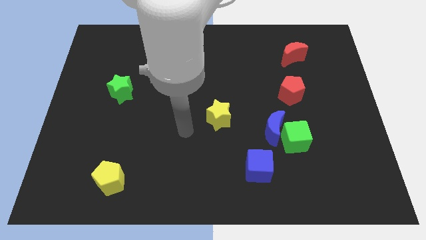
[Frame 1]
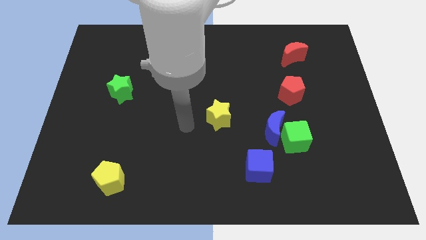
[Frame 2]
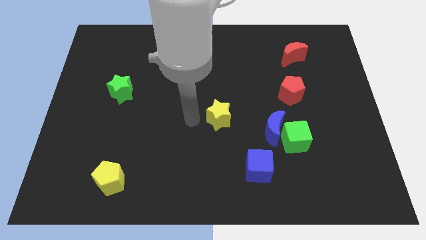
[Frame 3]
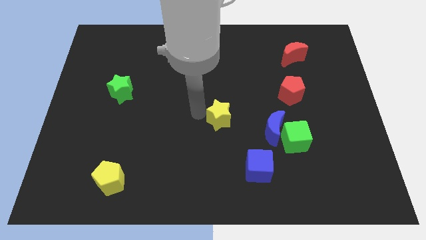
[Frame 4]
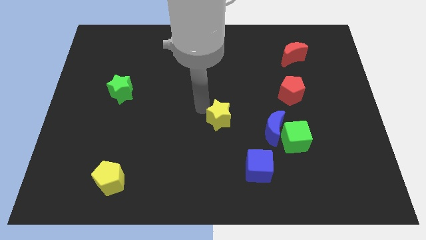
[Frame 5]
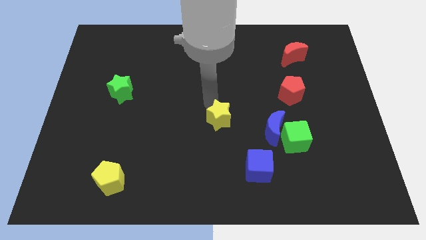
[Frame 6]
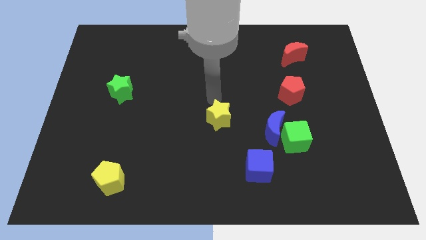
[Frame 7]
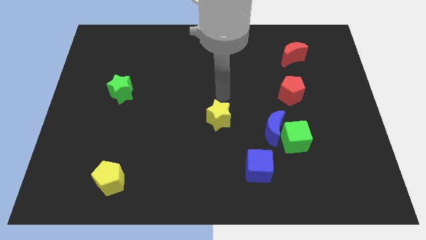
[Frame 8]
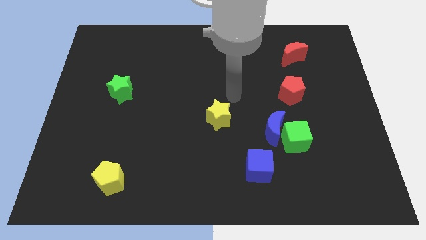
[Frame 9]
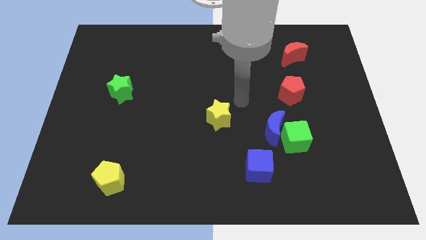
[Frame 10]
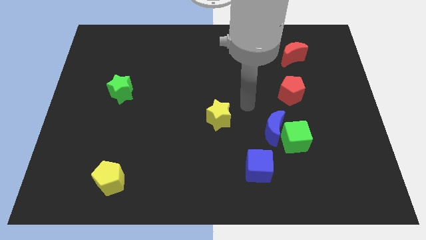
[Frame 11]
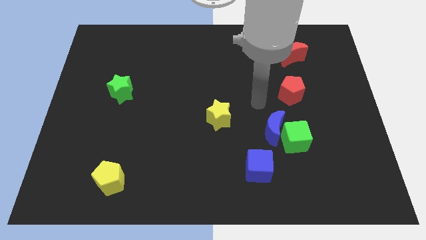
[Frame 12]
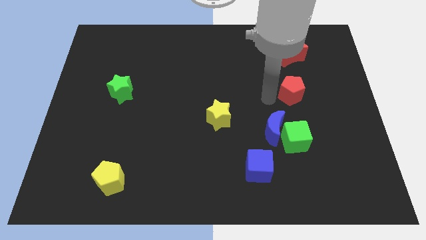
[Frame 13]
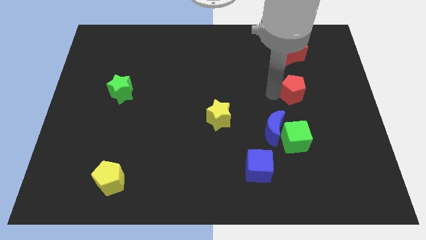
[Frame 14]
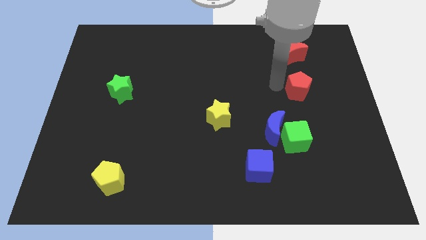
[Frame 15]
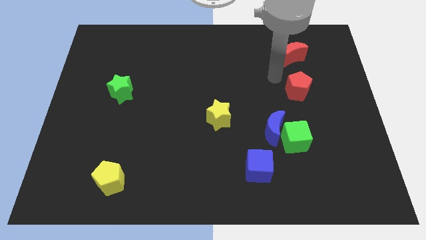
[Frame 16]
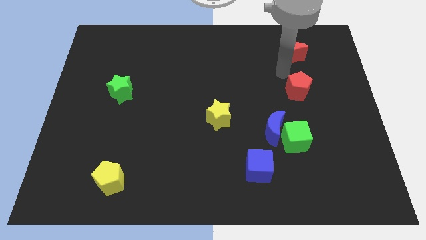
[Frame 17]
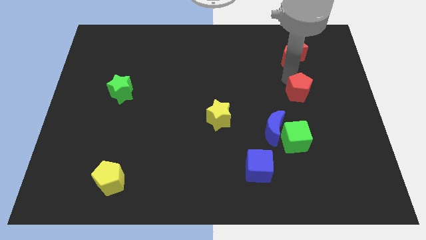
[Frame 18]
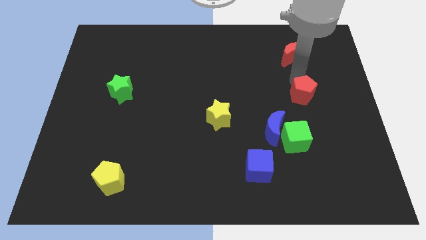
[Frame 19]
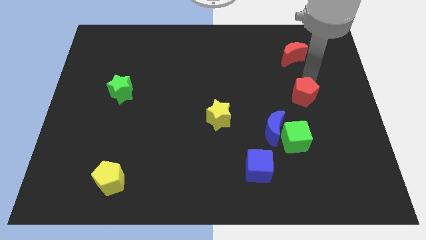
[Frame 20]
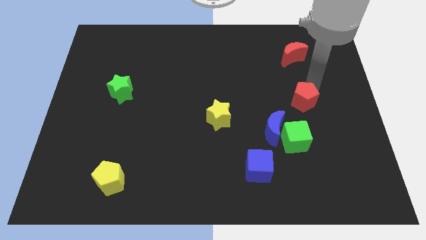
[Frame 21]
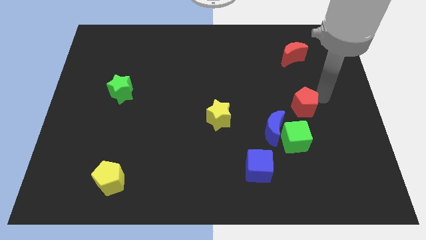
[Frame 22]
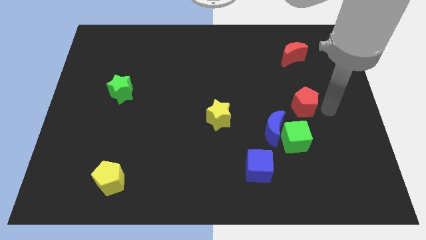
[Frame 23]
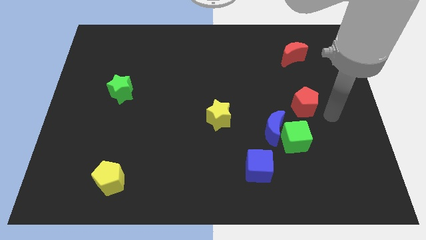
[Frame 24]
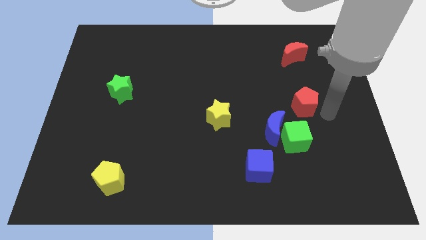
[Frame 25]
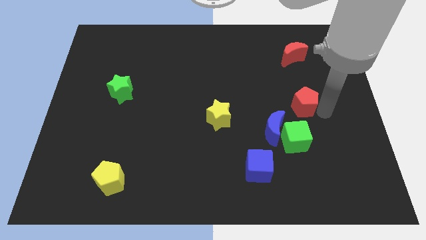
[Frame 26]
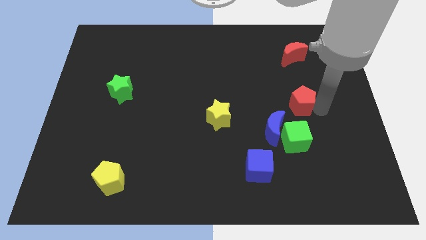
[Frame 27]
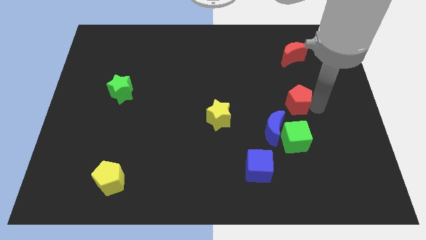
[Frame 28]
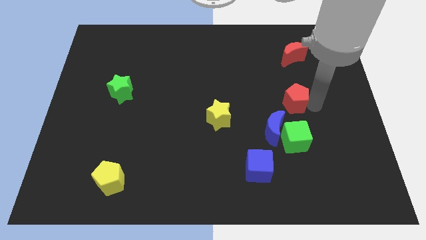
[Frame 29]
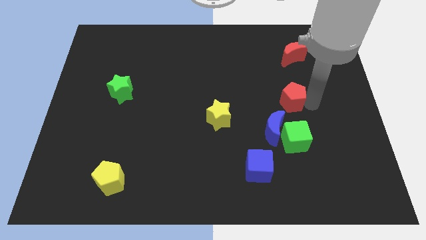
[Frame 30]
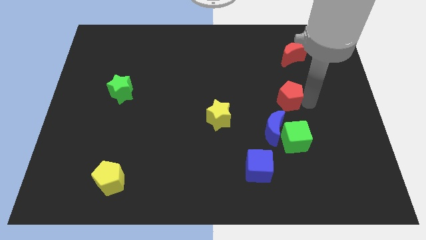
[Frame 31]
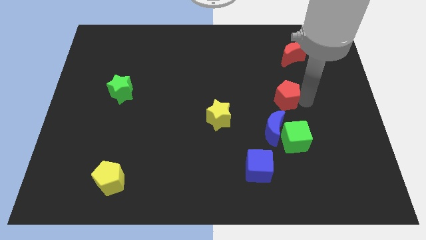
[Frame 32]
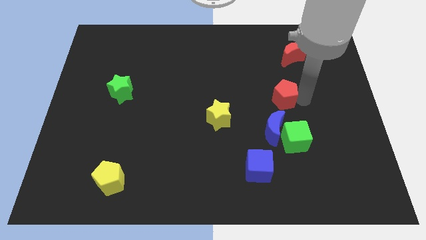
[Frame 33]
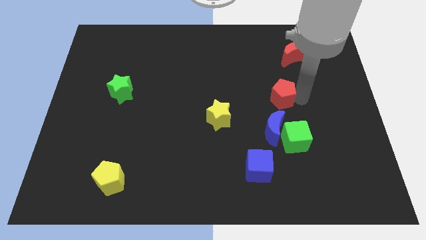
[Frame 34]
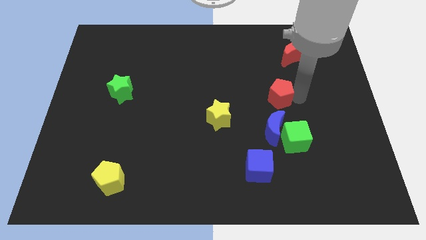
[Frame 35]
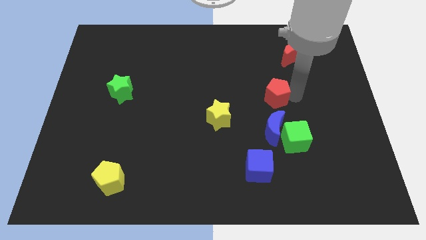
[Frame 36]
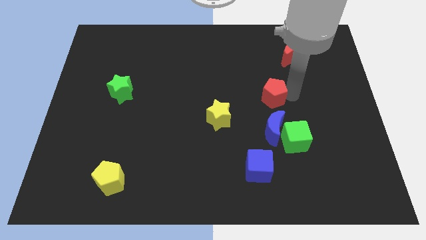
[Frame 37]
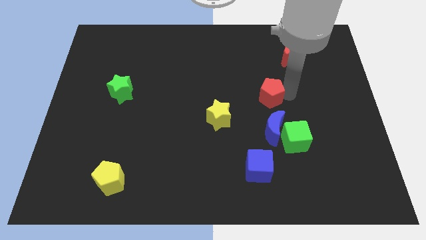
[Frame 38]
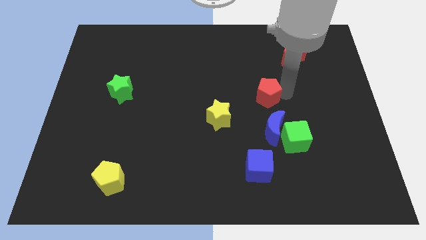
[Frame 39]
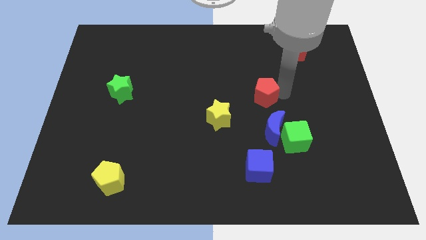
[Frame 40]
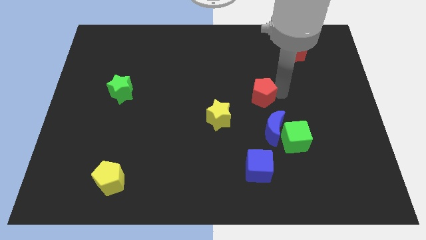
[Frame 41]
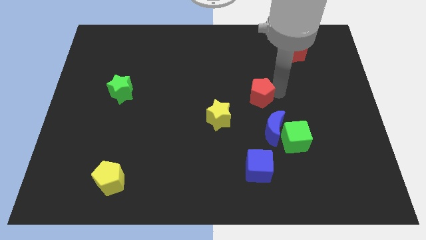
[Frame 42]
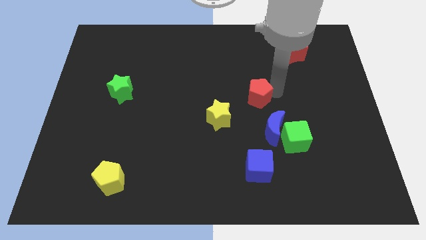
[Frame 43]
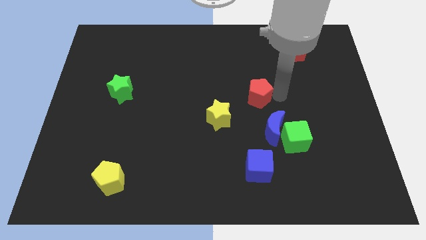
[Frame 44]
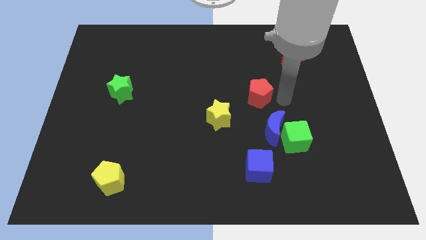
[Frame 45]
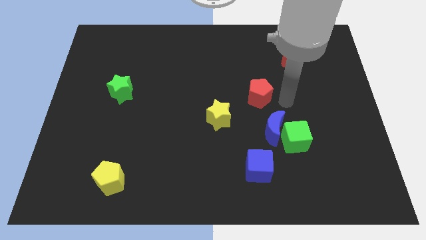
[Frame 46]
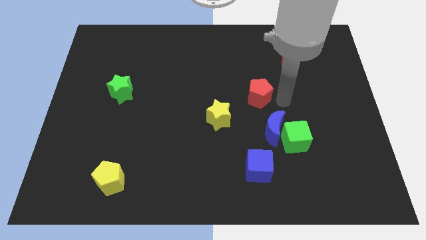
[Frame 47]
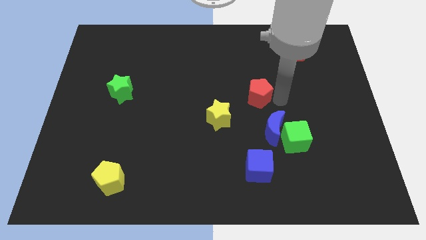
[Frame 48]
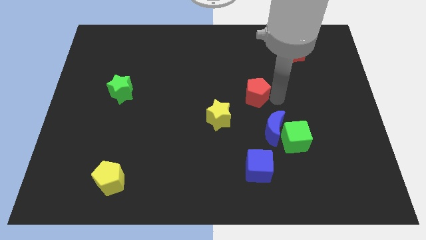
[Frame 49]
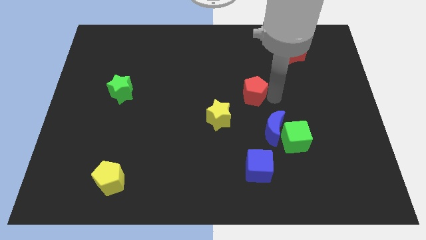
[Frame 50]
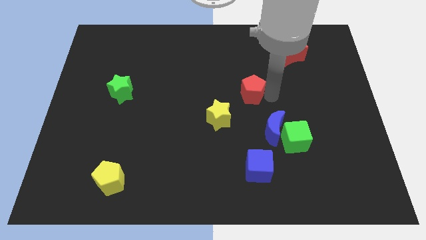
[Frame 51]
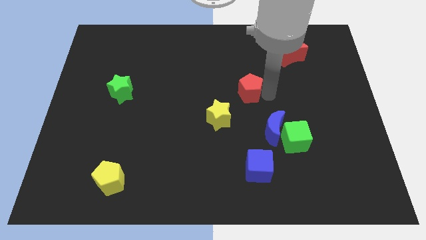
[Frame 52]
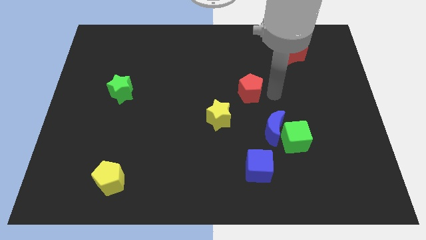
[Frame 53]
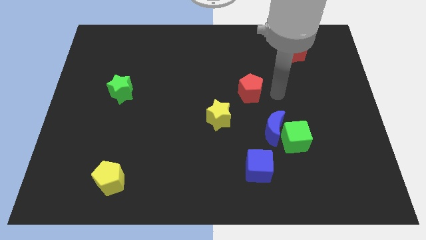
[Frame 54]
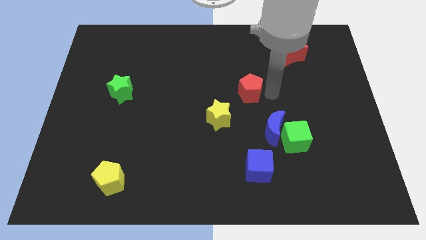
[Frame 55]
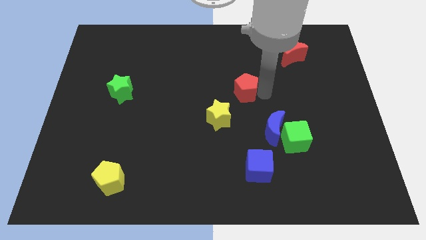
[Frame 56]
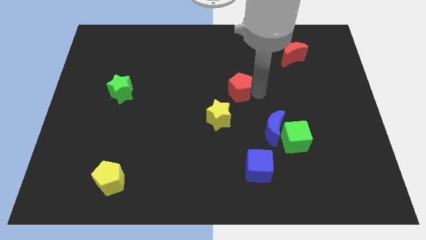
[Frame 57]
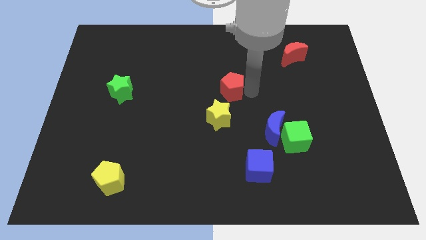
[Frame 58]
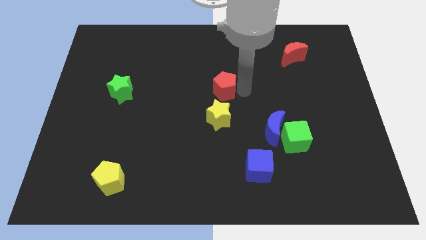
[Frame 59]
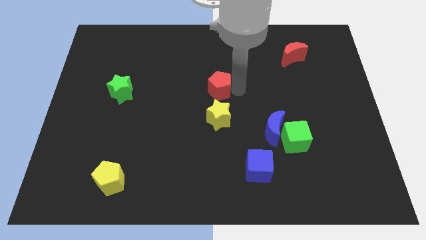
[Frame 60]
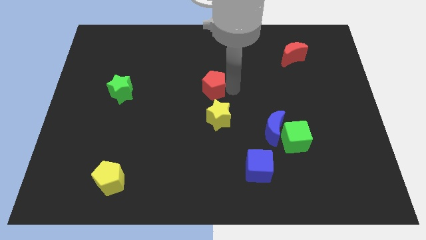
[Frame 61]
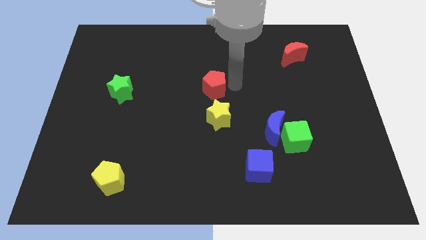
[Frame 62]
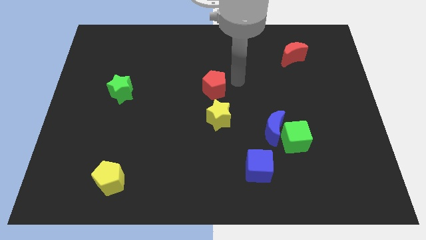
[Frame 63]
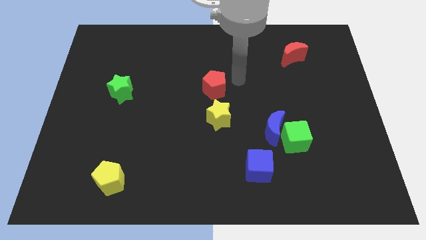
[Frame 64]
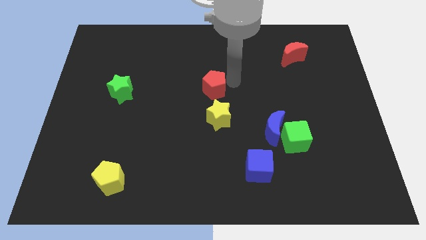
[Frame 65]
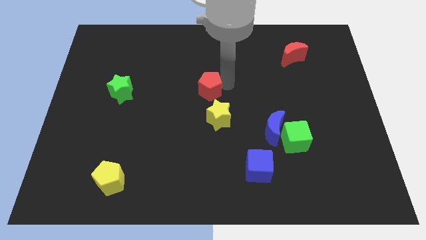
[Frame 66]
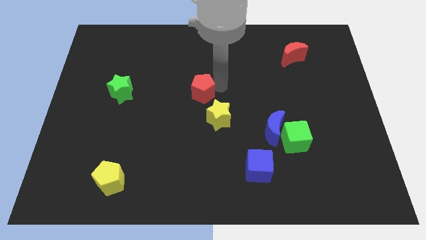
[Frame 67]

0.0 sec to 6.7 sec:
slide the red pentagon left

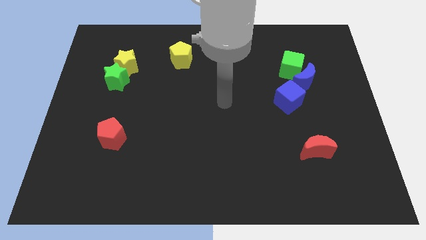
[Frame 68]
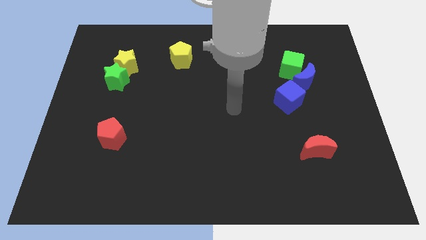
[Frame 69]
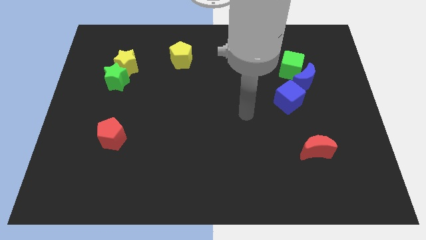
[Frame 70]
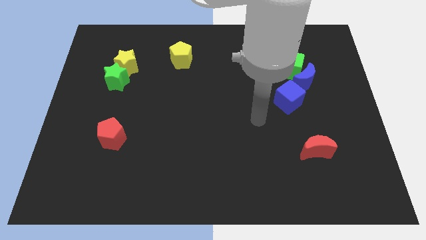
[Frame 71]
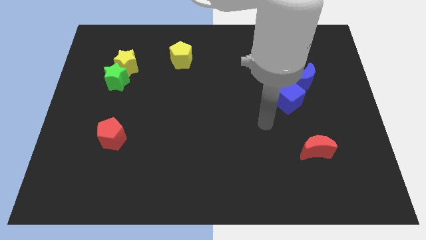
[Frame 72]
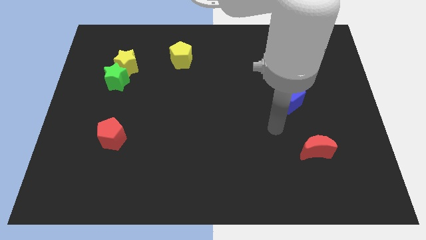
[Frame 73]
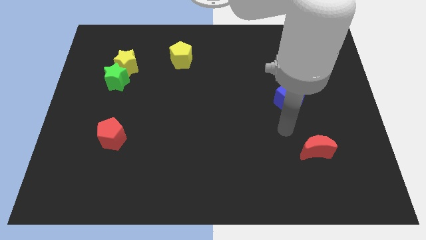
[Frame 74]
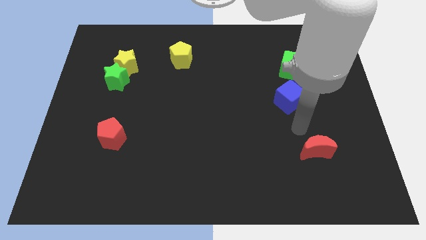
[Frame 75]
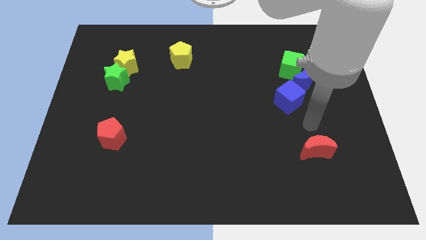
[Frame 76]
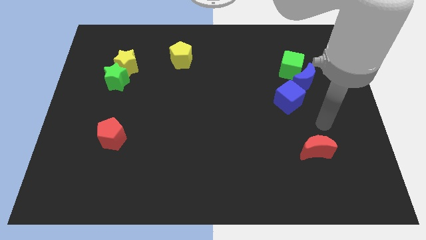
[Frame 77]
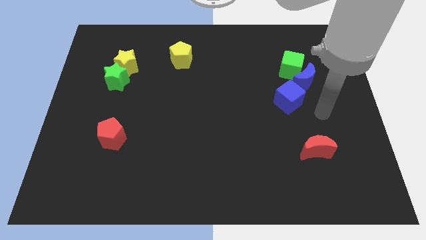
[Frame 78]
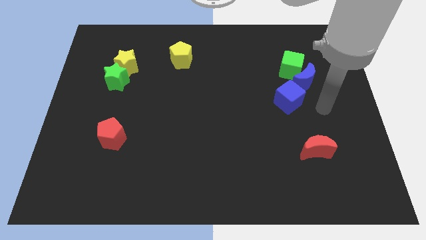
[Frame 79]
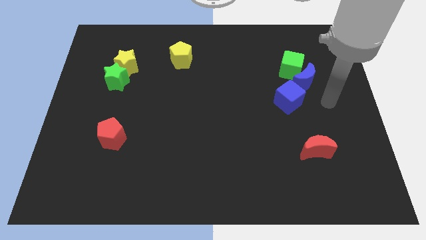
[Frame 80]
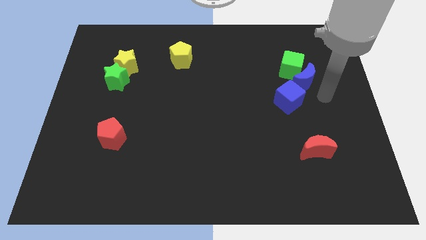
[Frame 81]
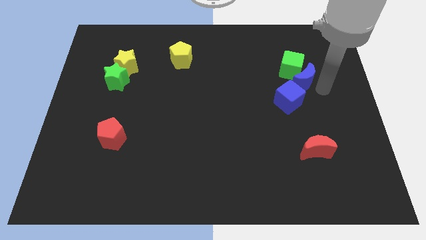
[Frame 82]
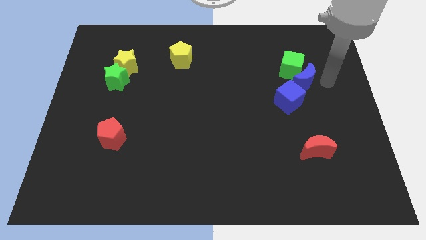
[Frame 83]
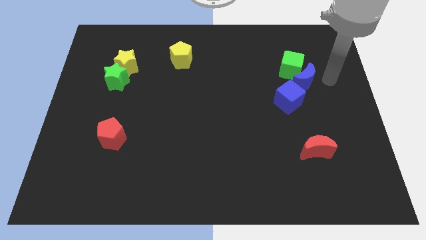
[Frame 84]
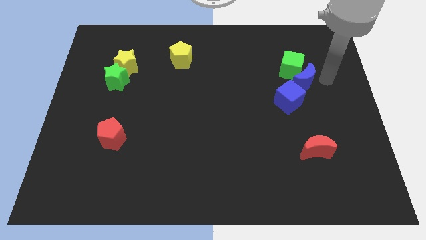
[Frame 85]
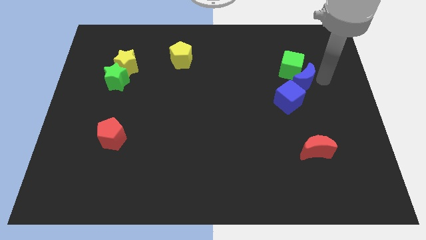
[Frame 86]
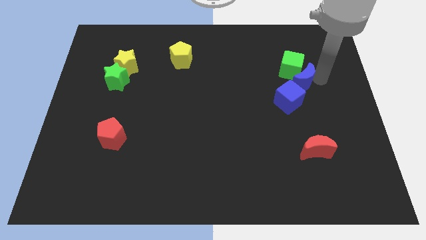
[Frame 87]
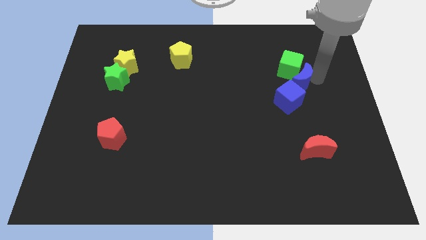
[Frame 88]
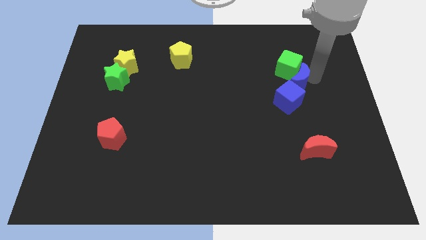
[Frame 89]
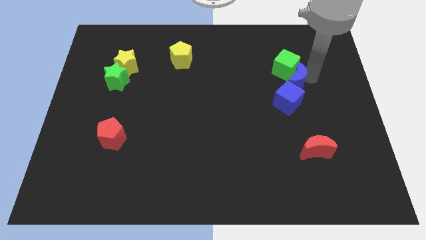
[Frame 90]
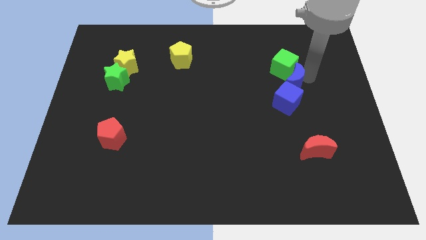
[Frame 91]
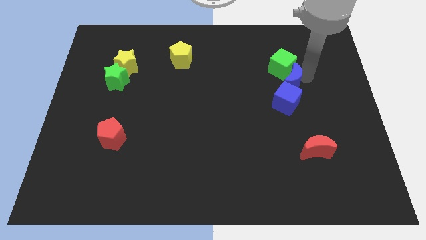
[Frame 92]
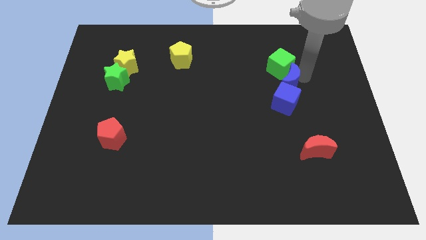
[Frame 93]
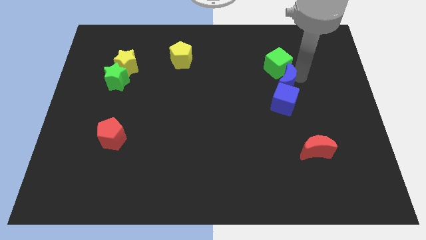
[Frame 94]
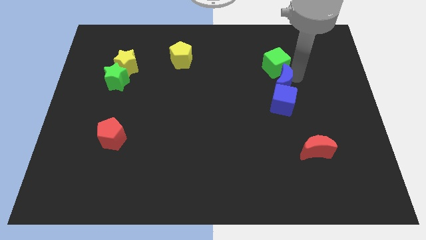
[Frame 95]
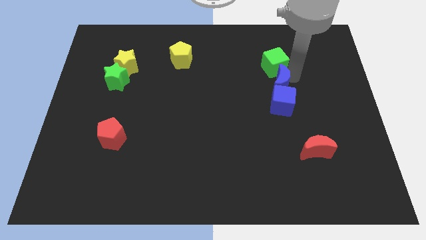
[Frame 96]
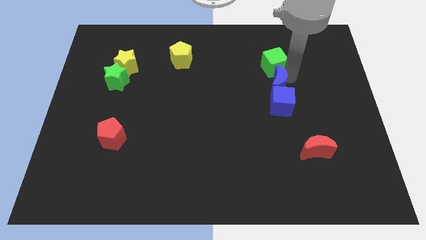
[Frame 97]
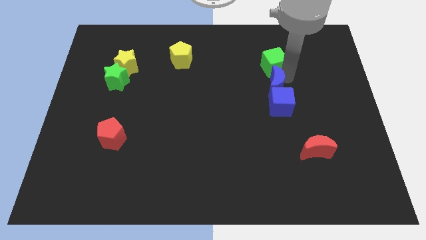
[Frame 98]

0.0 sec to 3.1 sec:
slightly move the blue moon left
